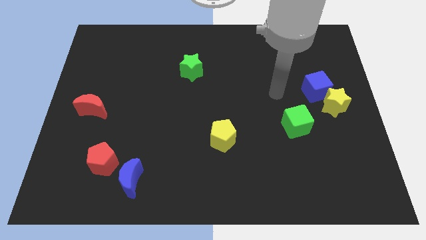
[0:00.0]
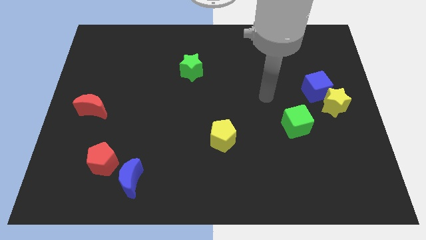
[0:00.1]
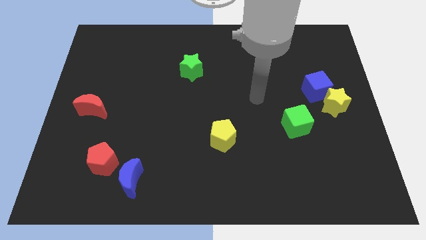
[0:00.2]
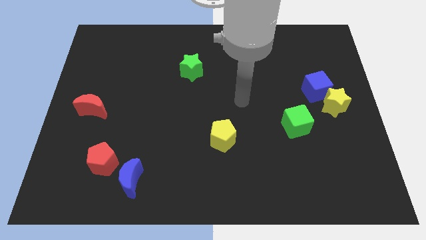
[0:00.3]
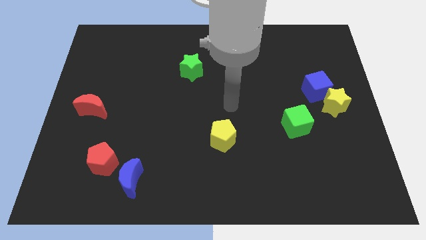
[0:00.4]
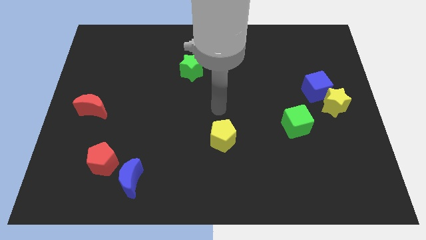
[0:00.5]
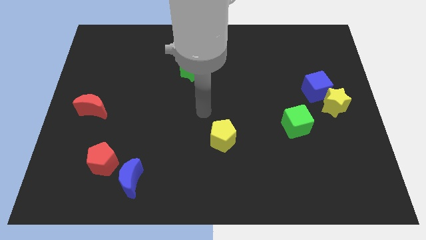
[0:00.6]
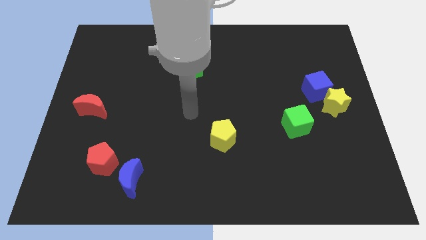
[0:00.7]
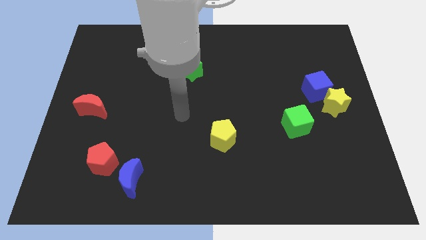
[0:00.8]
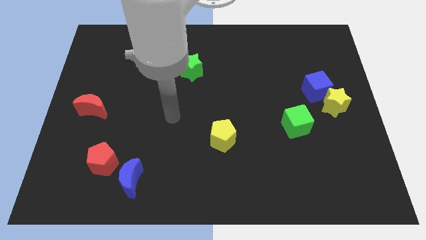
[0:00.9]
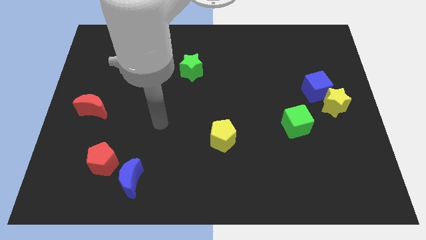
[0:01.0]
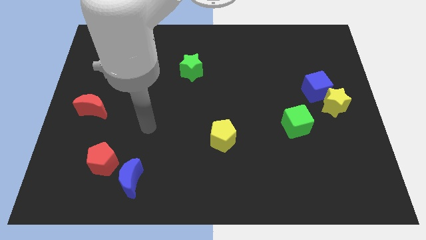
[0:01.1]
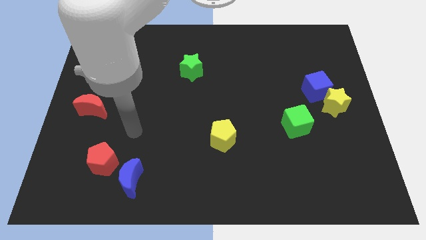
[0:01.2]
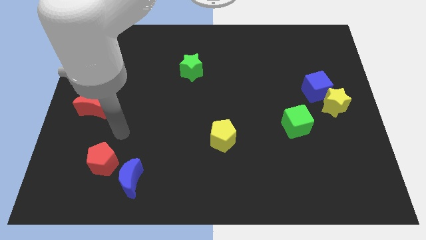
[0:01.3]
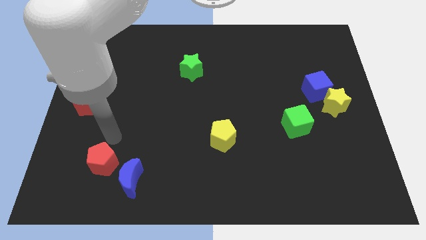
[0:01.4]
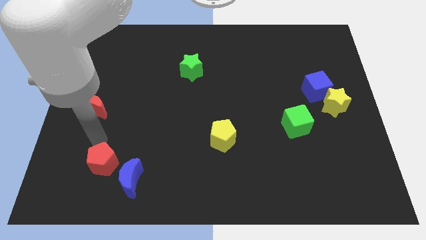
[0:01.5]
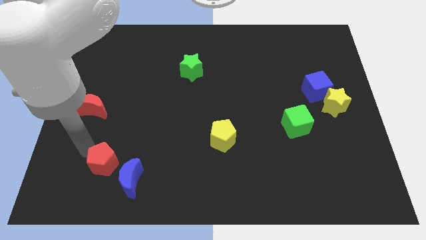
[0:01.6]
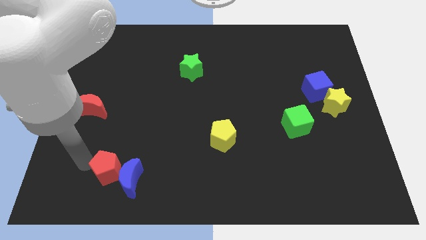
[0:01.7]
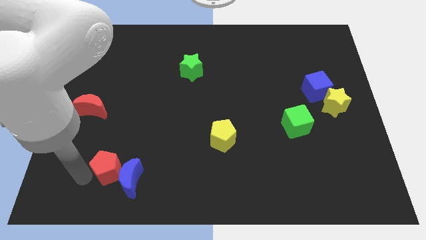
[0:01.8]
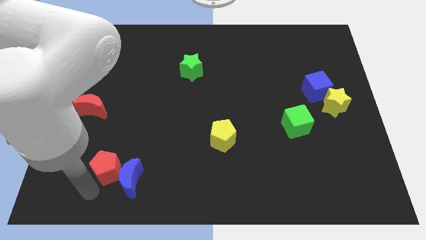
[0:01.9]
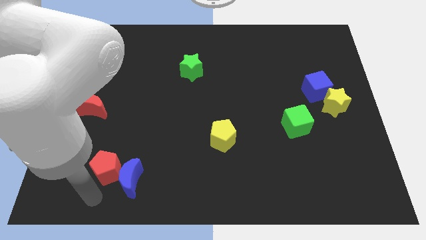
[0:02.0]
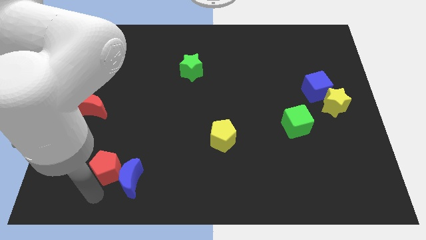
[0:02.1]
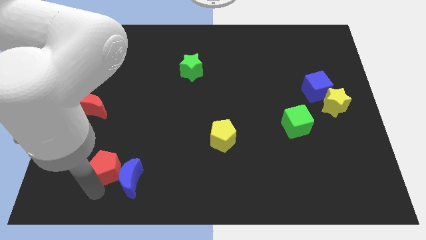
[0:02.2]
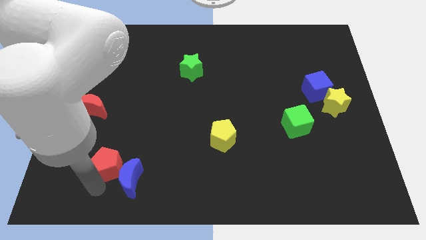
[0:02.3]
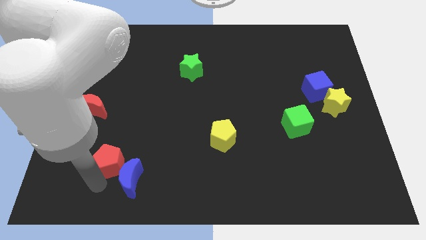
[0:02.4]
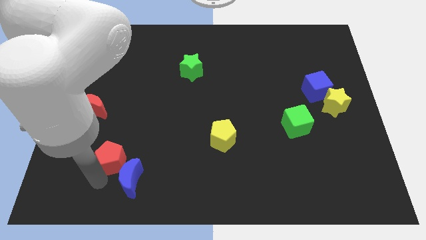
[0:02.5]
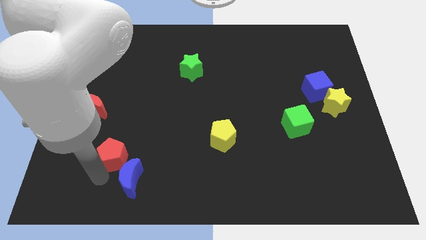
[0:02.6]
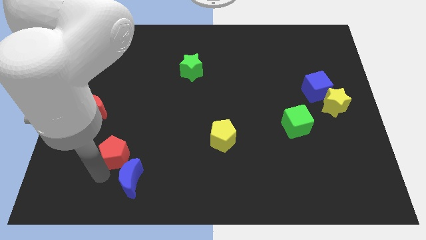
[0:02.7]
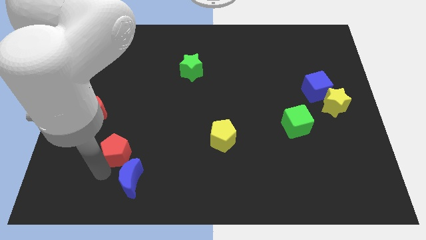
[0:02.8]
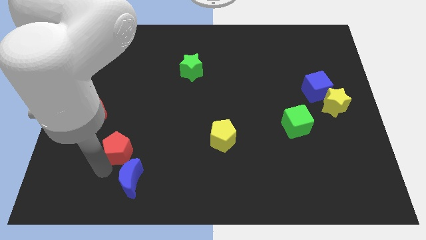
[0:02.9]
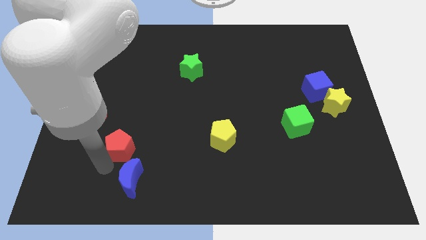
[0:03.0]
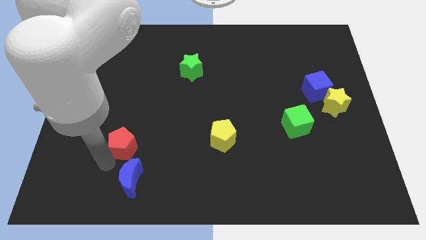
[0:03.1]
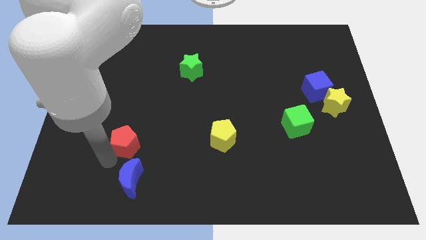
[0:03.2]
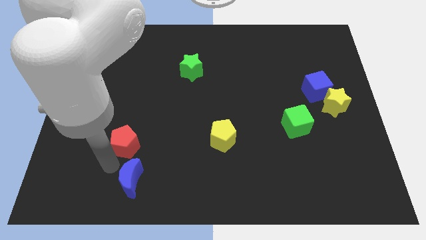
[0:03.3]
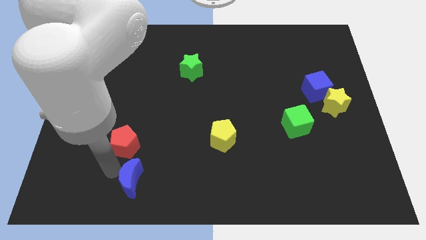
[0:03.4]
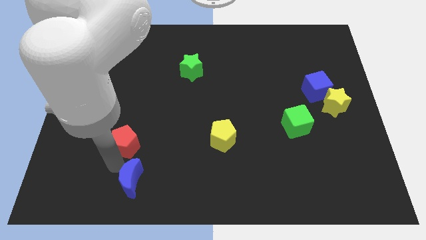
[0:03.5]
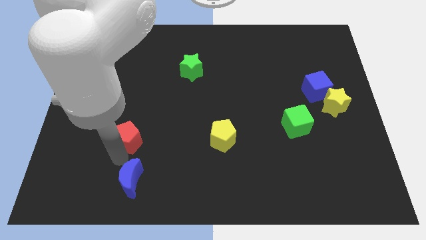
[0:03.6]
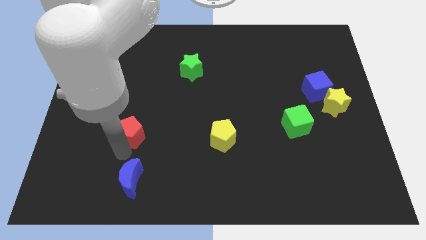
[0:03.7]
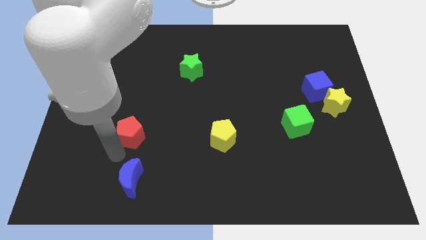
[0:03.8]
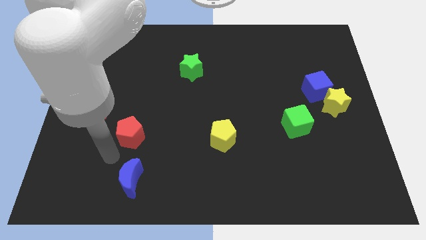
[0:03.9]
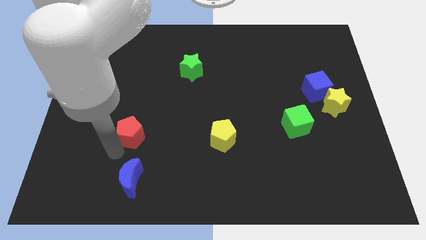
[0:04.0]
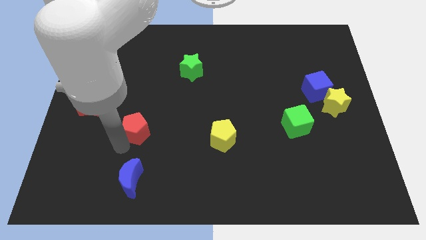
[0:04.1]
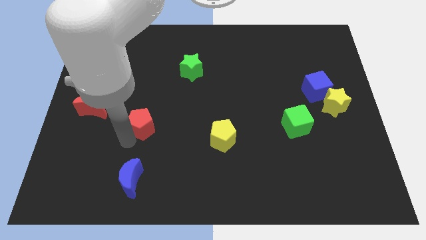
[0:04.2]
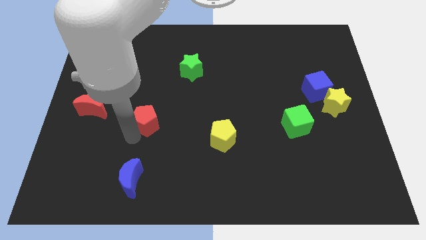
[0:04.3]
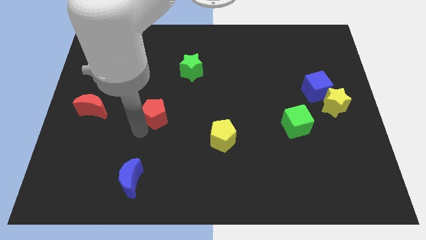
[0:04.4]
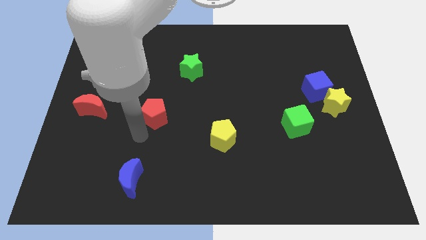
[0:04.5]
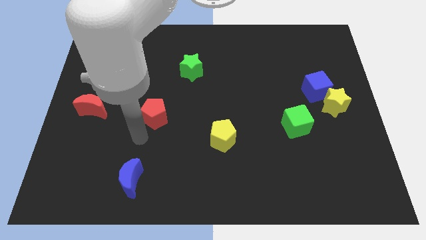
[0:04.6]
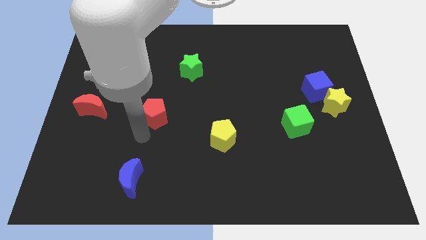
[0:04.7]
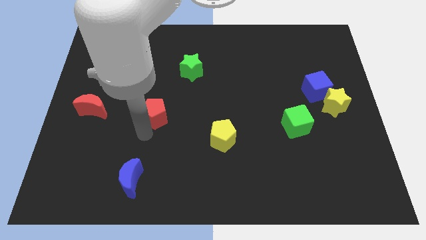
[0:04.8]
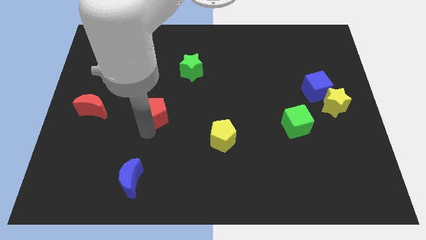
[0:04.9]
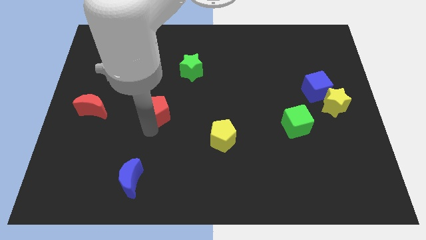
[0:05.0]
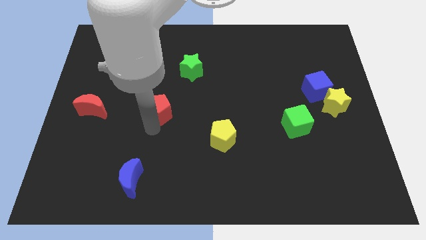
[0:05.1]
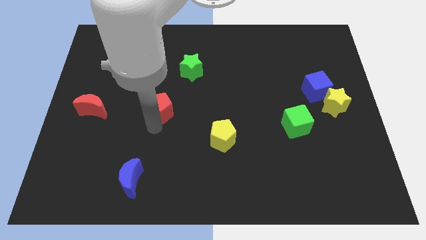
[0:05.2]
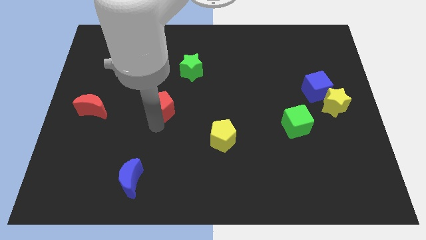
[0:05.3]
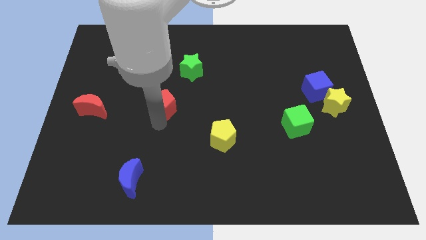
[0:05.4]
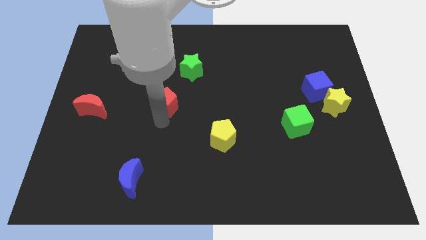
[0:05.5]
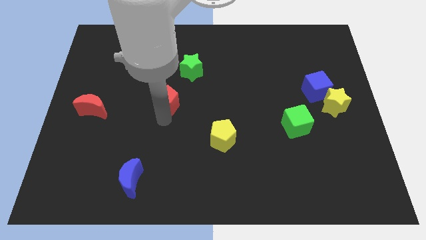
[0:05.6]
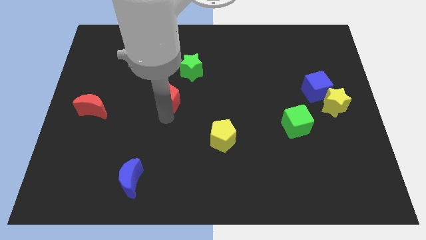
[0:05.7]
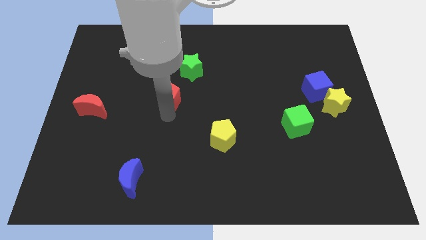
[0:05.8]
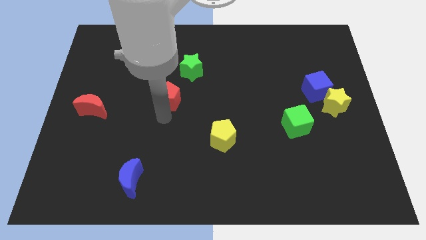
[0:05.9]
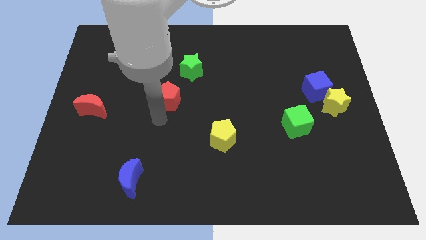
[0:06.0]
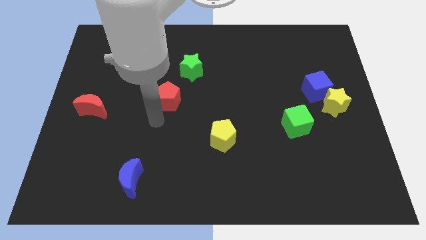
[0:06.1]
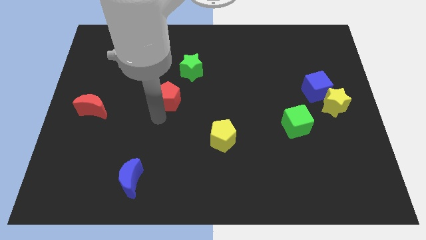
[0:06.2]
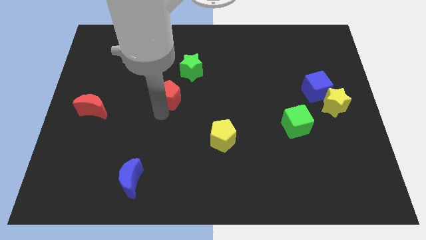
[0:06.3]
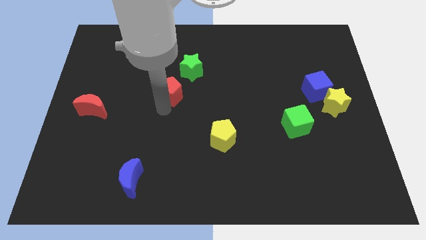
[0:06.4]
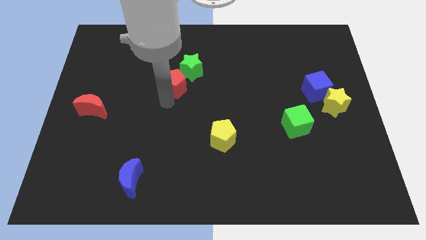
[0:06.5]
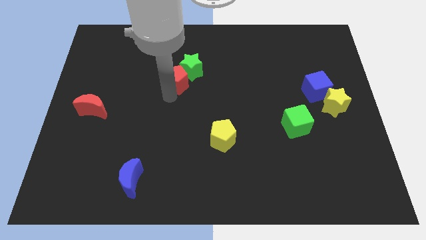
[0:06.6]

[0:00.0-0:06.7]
move the red pentagon next to the green star
